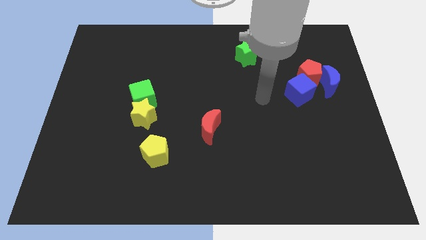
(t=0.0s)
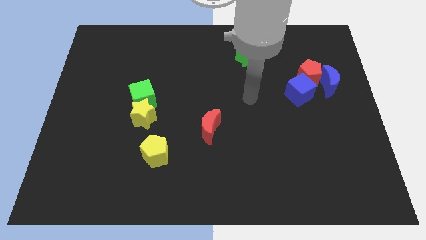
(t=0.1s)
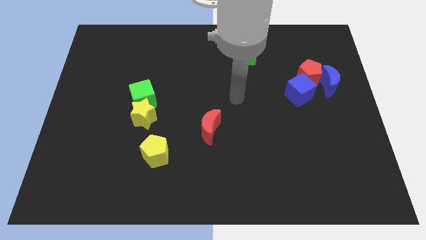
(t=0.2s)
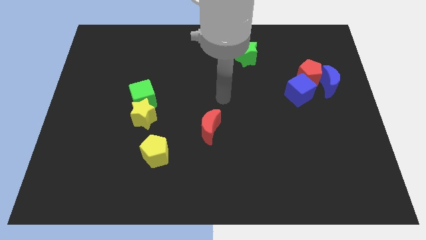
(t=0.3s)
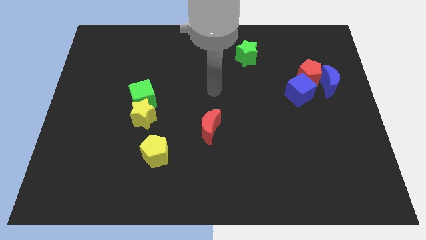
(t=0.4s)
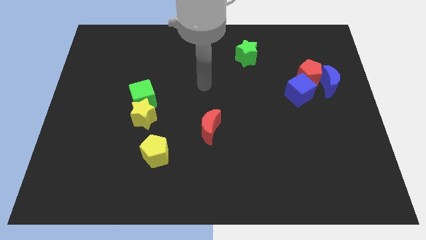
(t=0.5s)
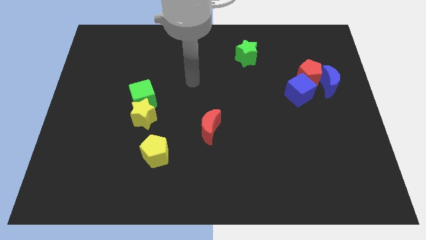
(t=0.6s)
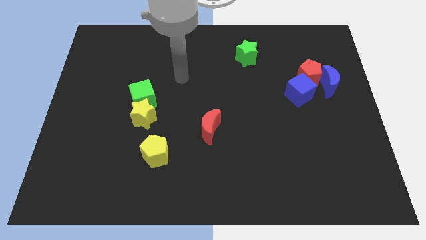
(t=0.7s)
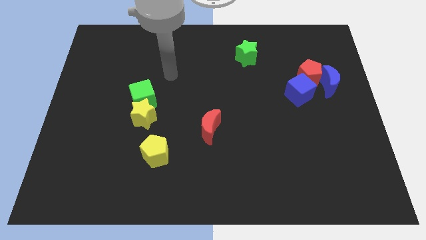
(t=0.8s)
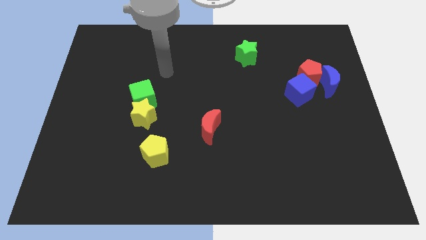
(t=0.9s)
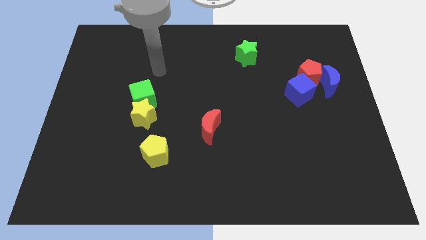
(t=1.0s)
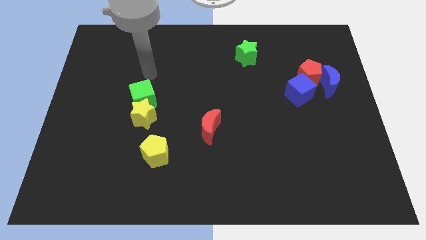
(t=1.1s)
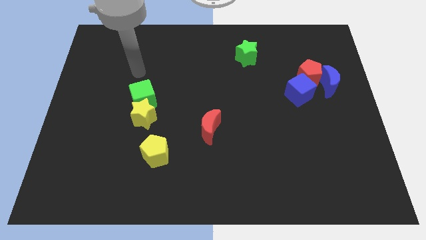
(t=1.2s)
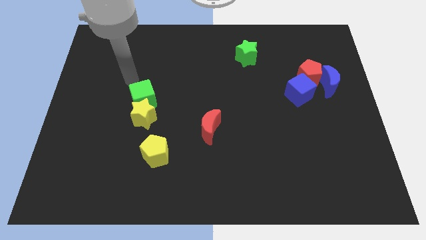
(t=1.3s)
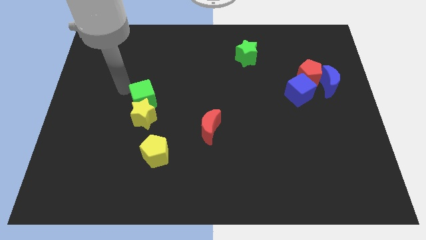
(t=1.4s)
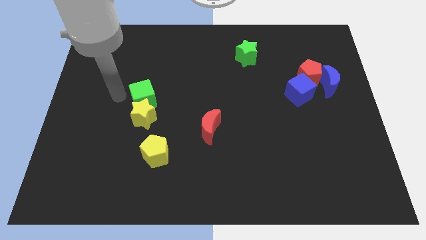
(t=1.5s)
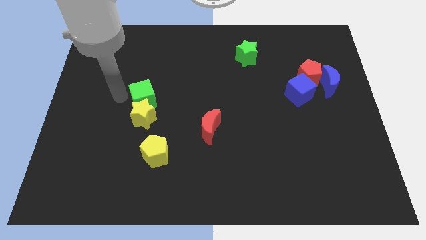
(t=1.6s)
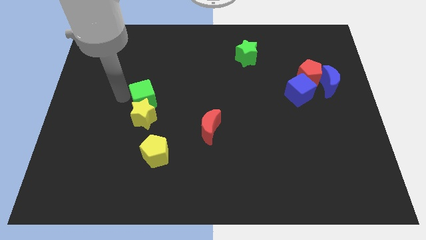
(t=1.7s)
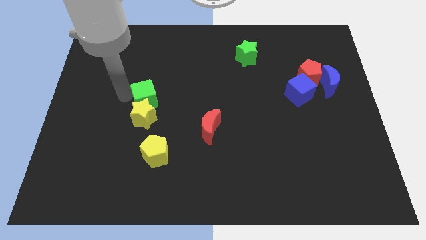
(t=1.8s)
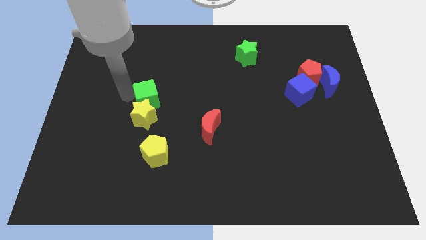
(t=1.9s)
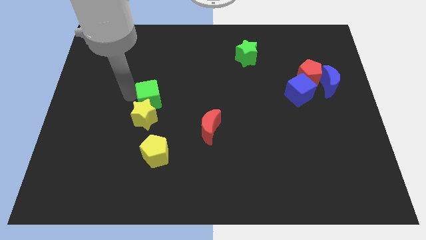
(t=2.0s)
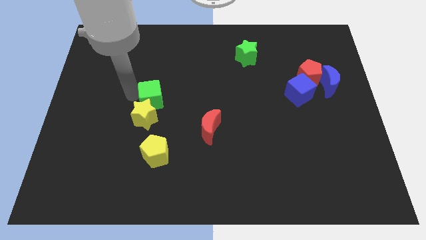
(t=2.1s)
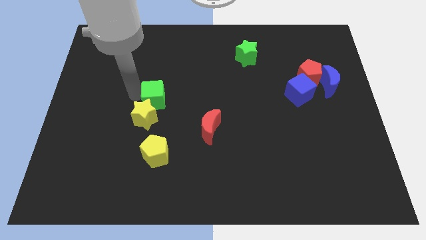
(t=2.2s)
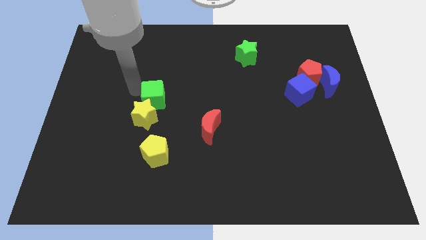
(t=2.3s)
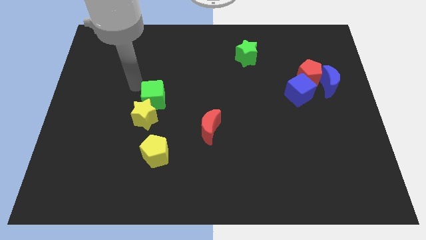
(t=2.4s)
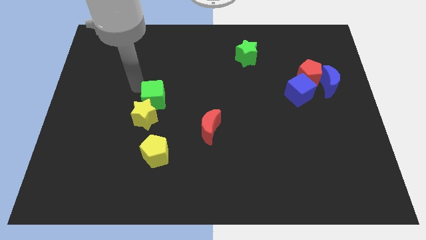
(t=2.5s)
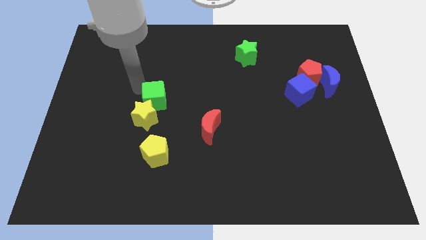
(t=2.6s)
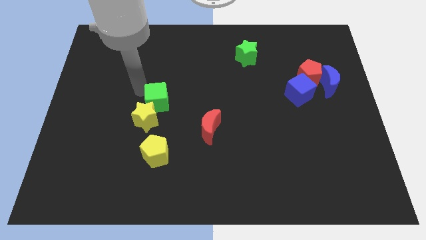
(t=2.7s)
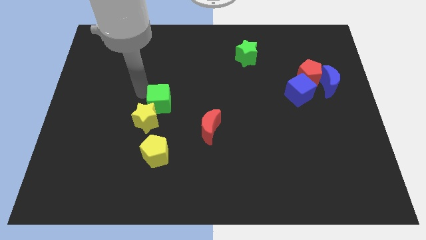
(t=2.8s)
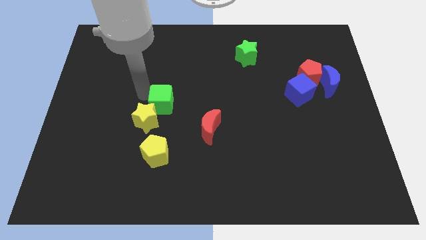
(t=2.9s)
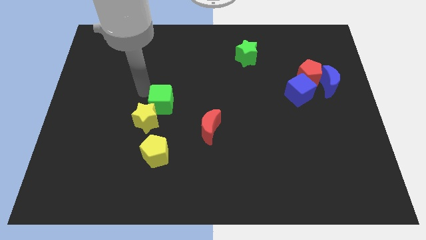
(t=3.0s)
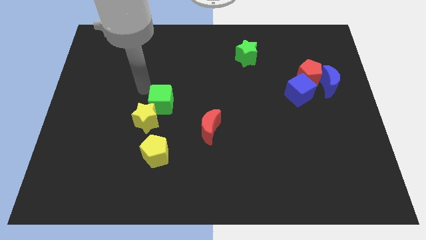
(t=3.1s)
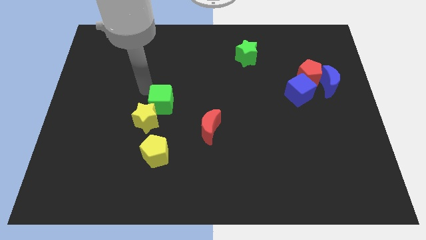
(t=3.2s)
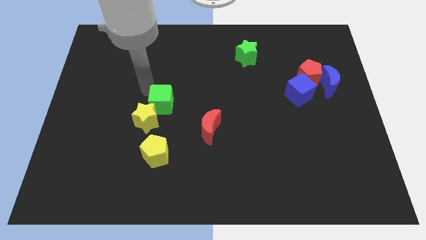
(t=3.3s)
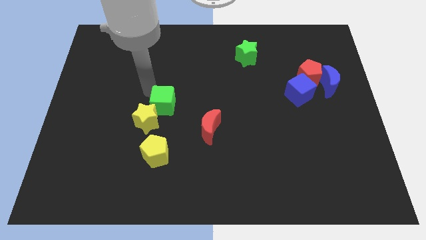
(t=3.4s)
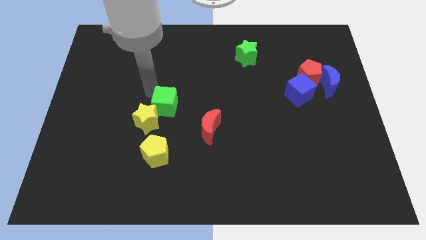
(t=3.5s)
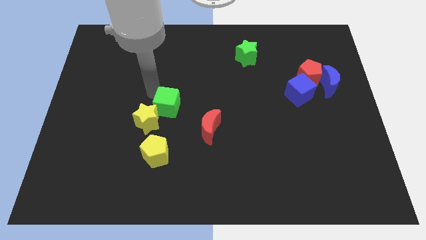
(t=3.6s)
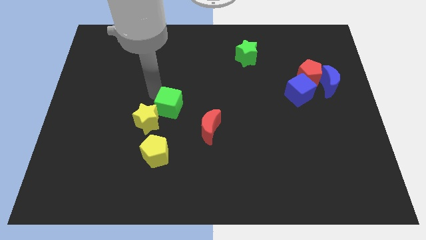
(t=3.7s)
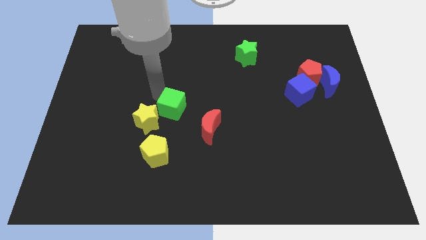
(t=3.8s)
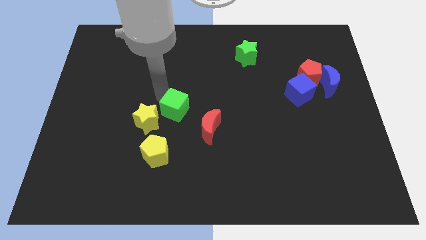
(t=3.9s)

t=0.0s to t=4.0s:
slide the green cube slightly diagonally down and right

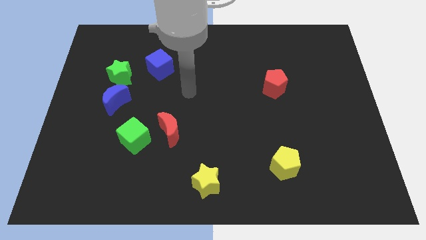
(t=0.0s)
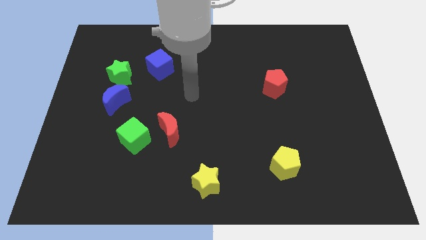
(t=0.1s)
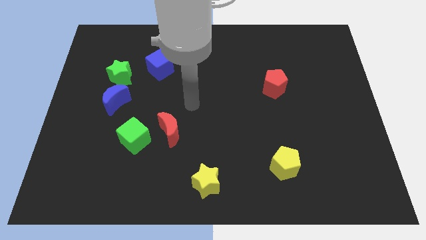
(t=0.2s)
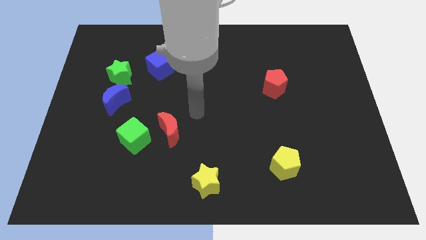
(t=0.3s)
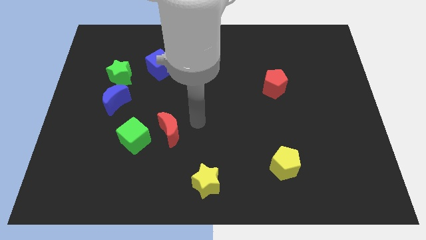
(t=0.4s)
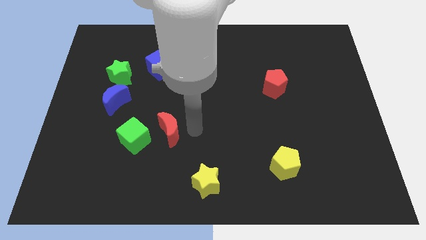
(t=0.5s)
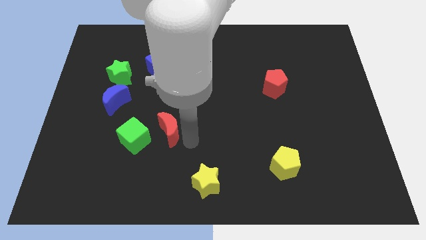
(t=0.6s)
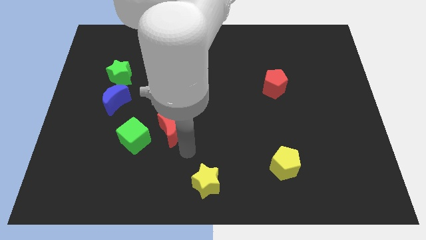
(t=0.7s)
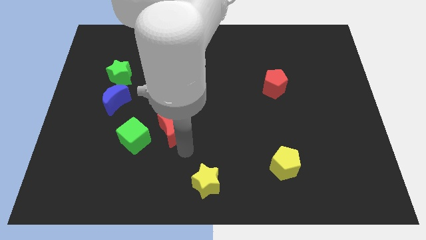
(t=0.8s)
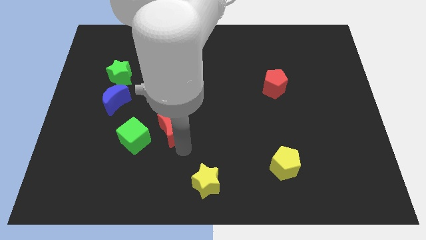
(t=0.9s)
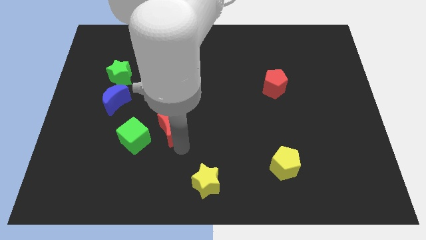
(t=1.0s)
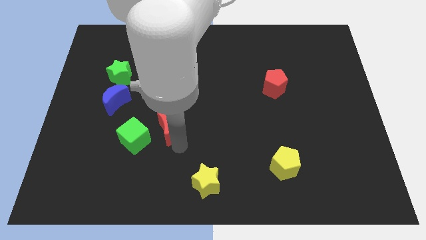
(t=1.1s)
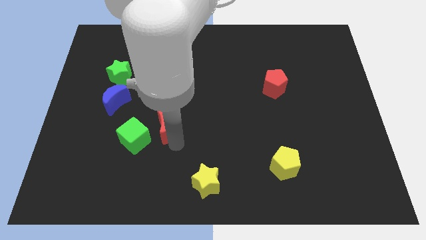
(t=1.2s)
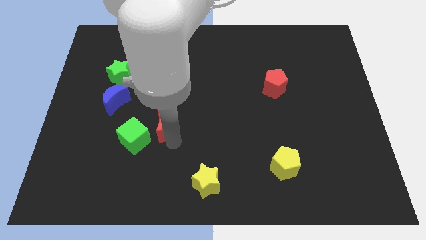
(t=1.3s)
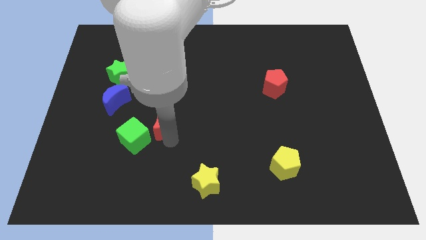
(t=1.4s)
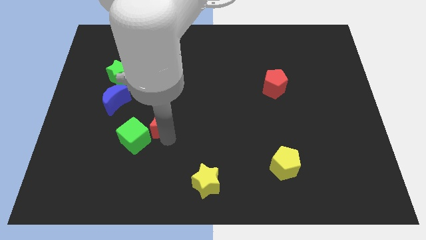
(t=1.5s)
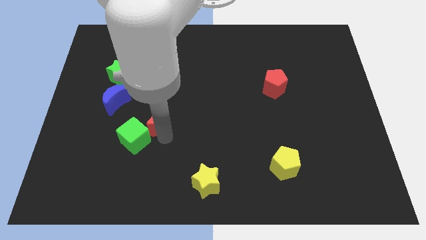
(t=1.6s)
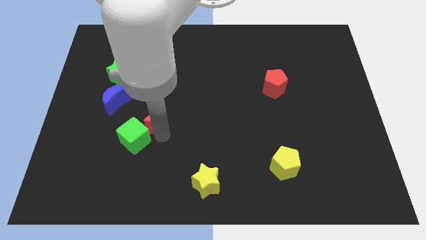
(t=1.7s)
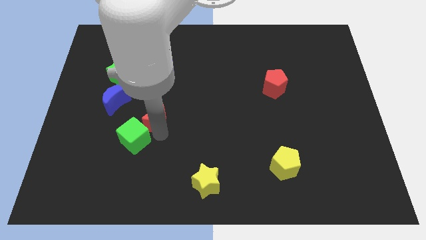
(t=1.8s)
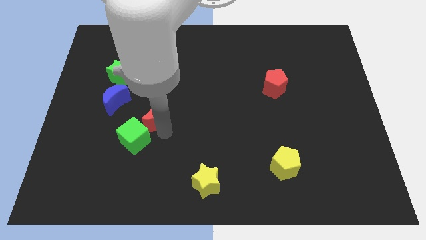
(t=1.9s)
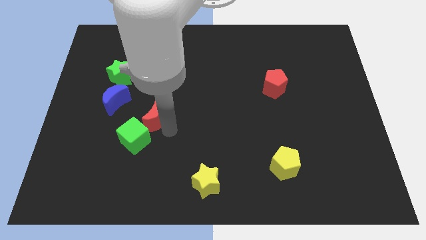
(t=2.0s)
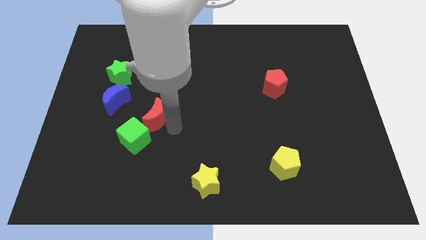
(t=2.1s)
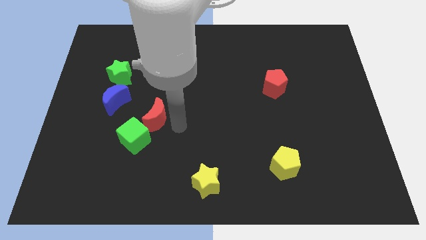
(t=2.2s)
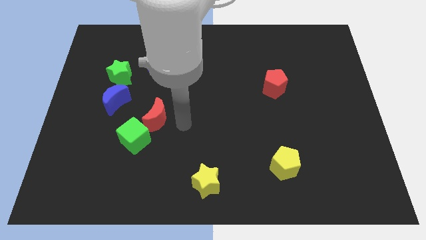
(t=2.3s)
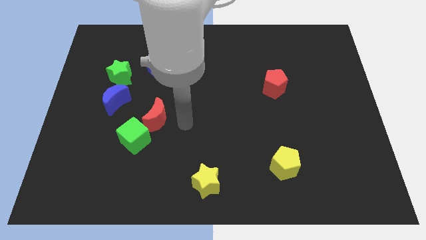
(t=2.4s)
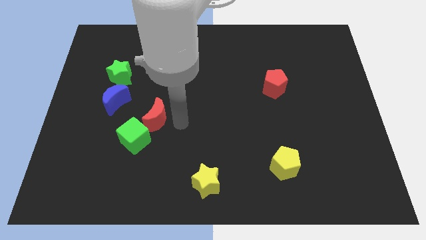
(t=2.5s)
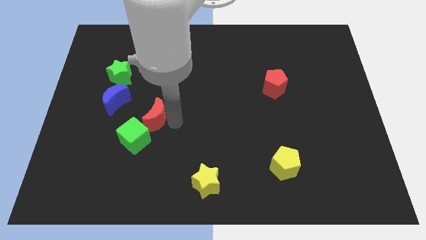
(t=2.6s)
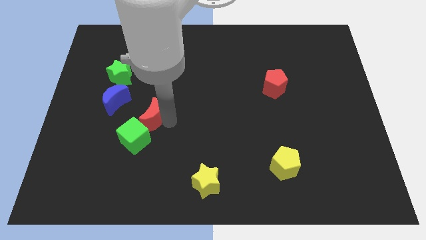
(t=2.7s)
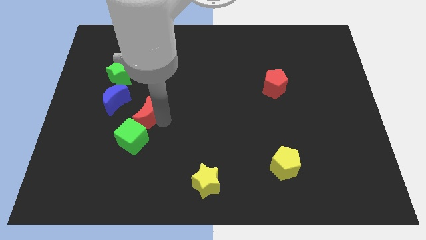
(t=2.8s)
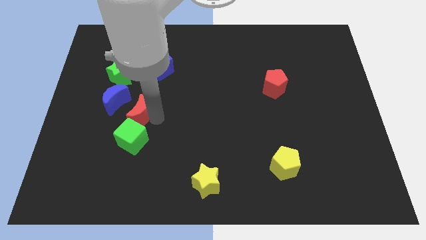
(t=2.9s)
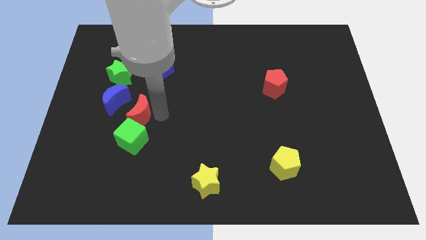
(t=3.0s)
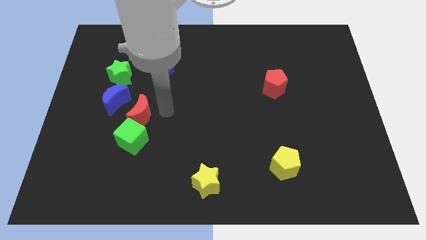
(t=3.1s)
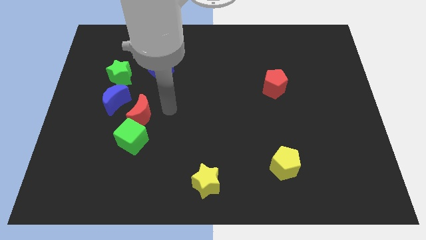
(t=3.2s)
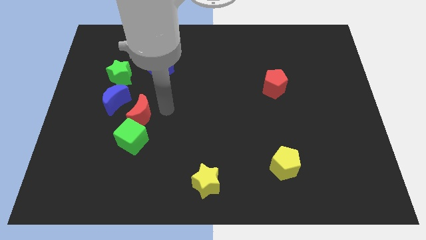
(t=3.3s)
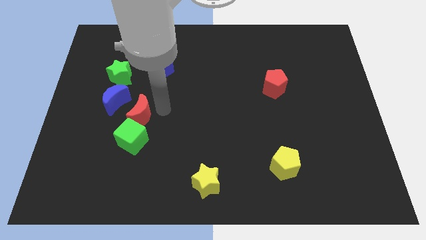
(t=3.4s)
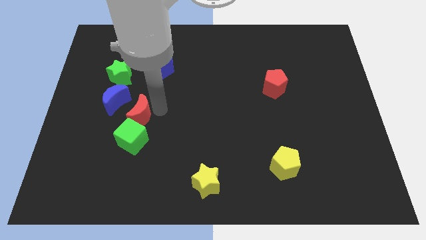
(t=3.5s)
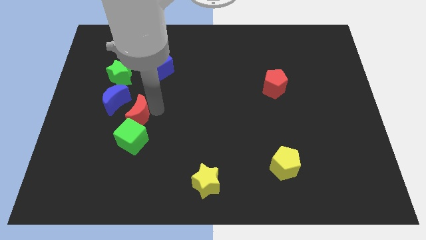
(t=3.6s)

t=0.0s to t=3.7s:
slide the red moon to the left a bit

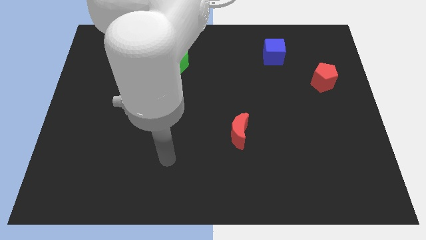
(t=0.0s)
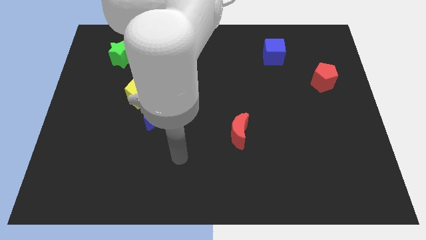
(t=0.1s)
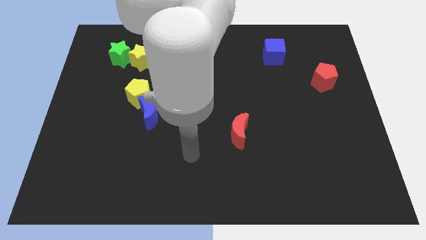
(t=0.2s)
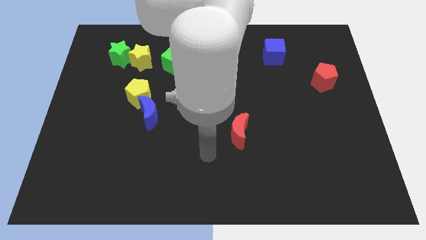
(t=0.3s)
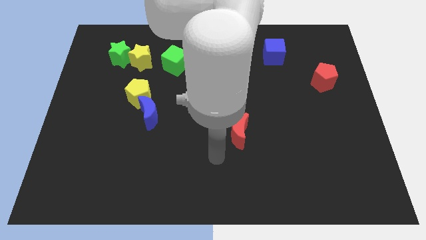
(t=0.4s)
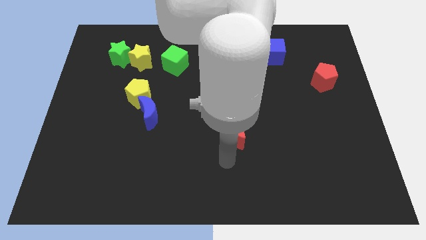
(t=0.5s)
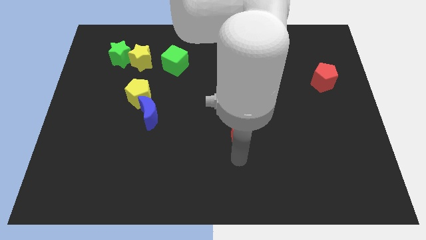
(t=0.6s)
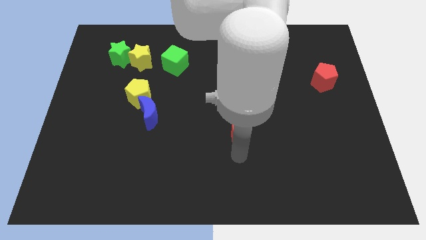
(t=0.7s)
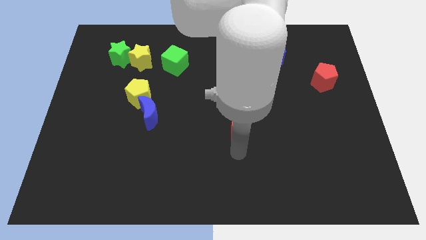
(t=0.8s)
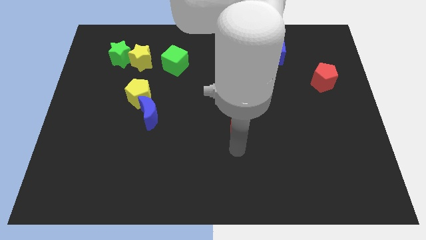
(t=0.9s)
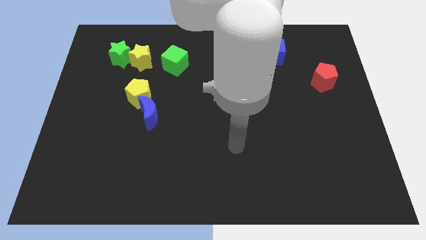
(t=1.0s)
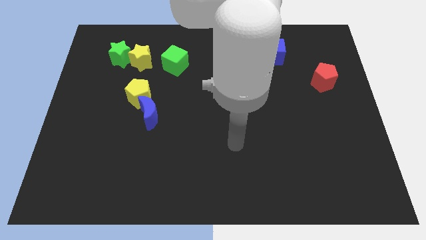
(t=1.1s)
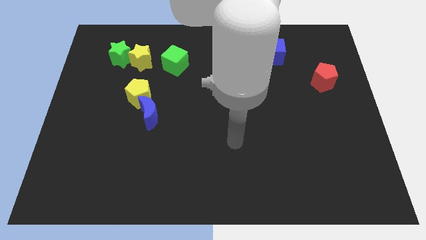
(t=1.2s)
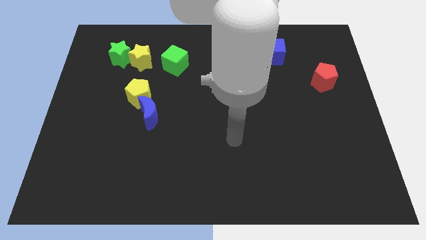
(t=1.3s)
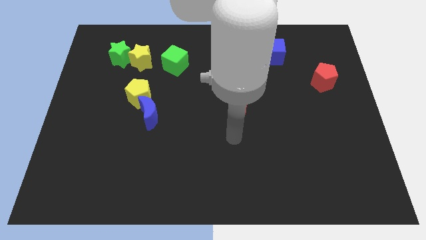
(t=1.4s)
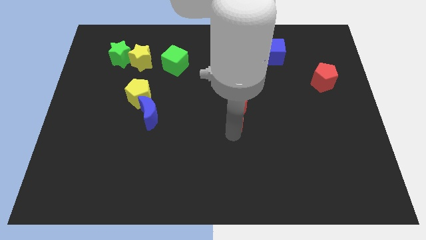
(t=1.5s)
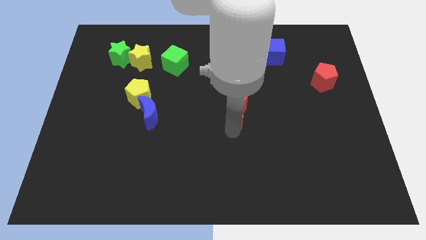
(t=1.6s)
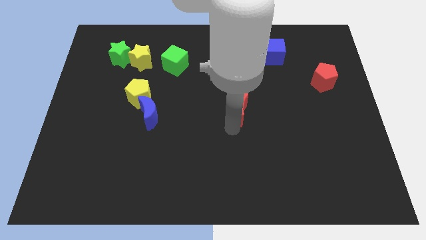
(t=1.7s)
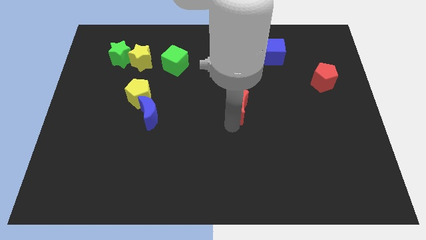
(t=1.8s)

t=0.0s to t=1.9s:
slightly move the red moon upwards
